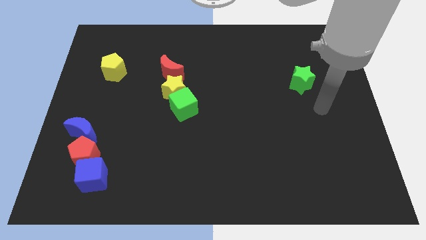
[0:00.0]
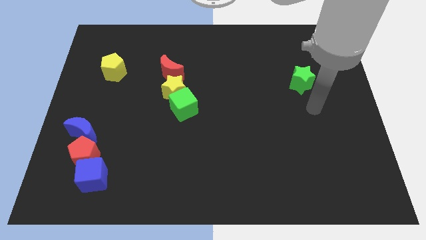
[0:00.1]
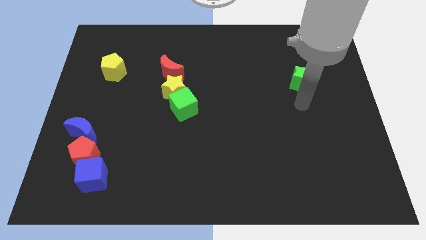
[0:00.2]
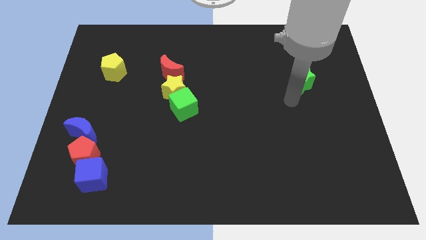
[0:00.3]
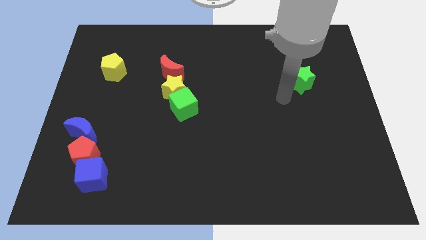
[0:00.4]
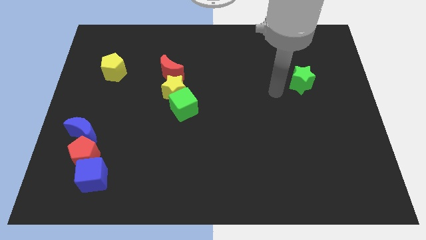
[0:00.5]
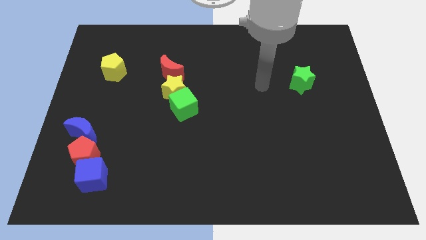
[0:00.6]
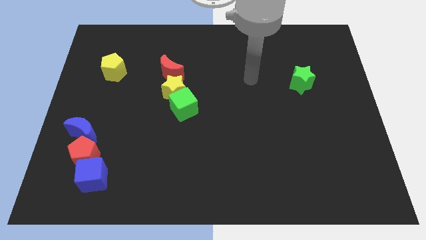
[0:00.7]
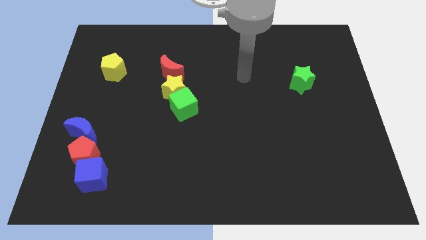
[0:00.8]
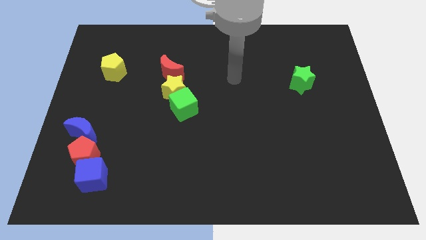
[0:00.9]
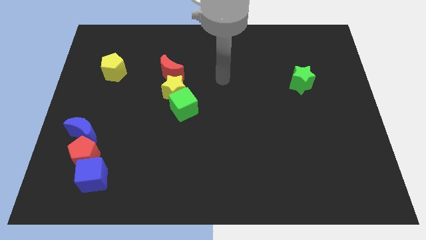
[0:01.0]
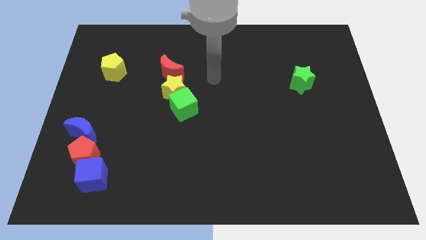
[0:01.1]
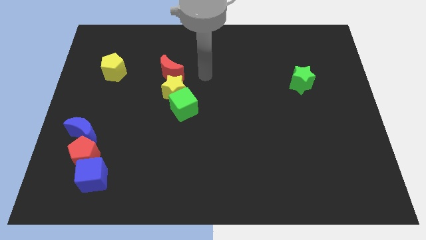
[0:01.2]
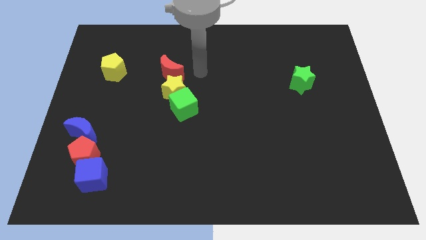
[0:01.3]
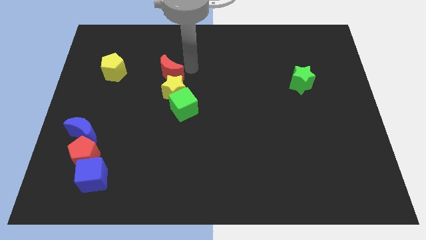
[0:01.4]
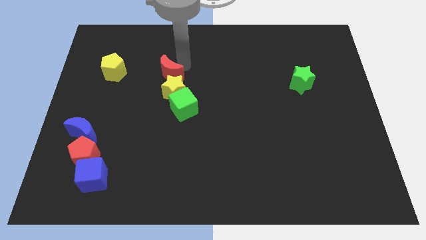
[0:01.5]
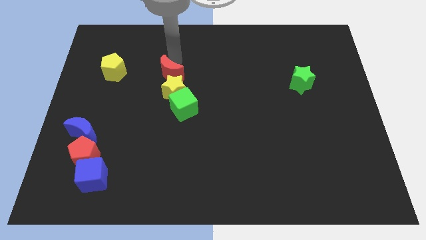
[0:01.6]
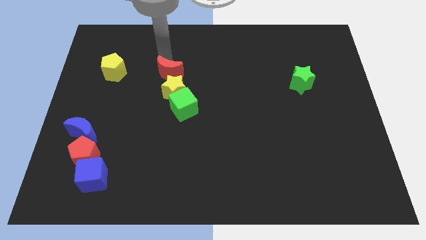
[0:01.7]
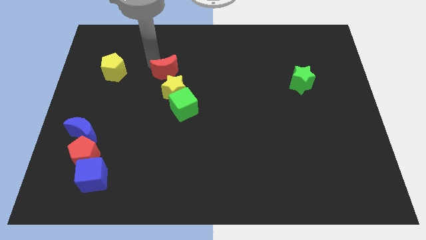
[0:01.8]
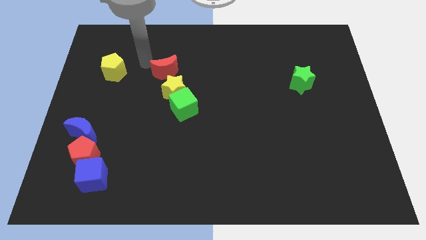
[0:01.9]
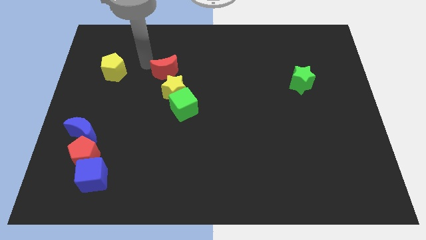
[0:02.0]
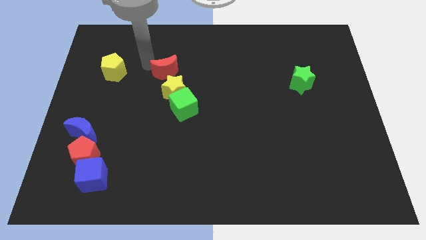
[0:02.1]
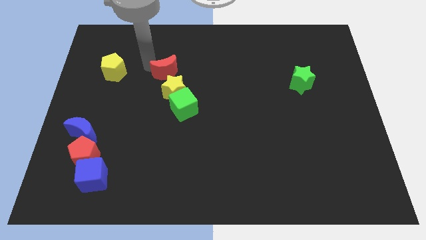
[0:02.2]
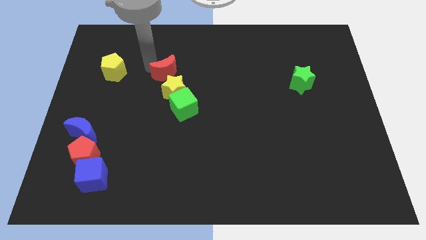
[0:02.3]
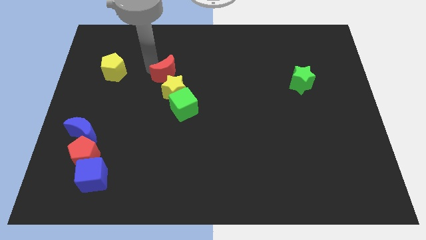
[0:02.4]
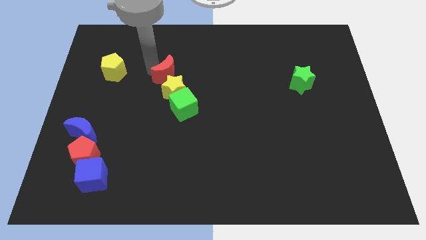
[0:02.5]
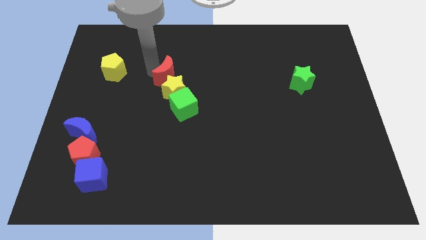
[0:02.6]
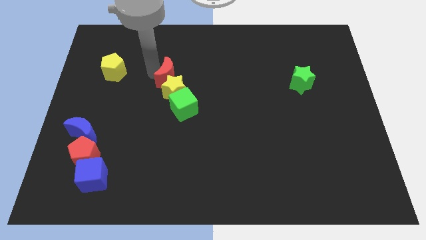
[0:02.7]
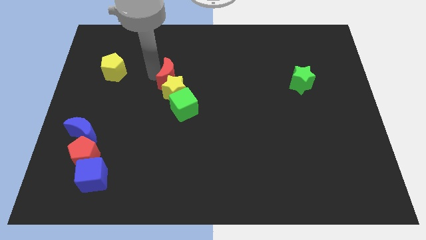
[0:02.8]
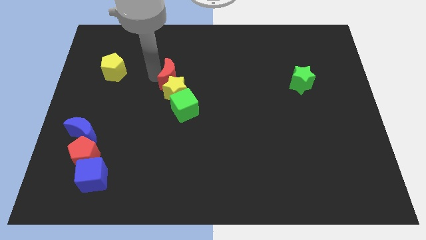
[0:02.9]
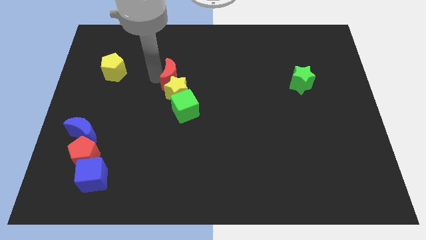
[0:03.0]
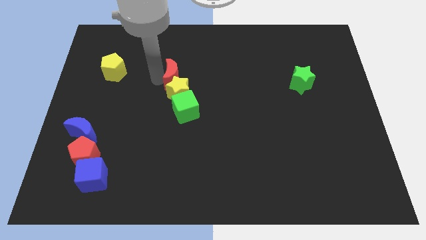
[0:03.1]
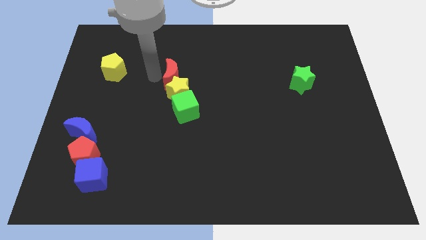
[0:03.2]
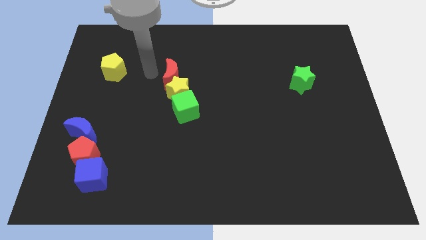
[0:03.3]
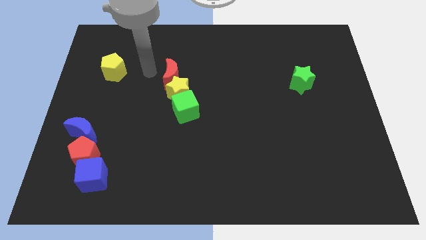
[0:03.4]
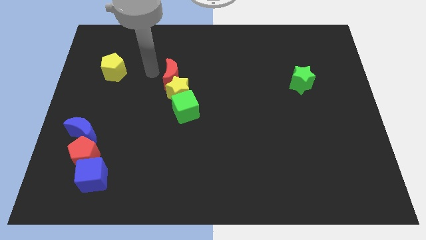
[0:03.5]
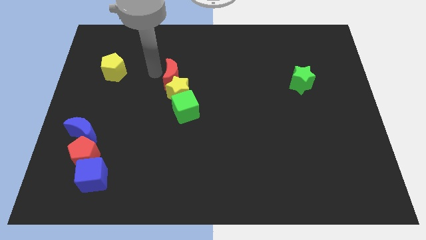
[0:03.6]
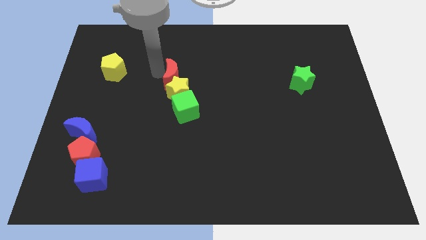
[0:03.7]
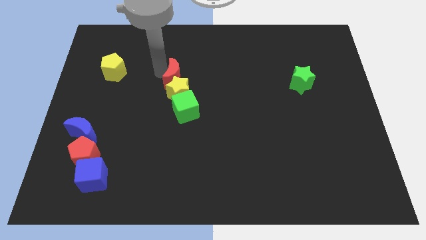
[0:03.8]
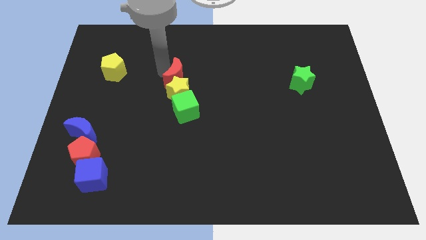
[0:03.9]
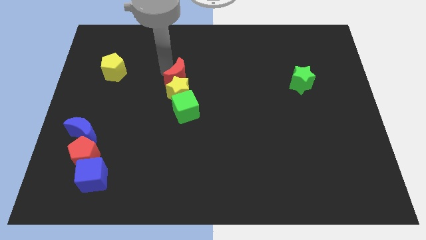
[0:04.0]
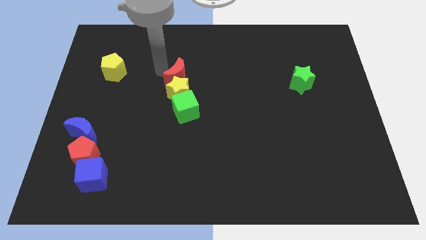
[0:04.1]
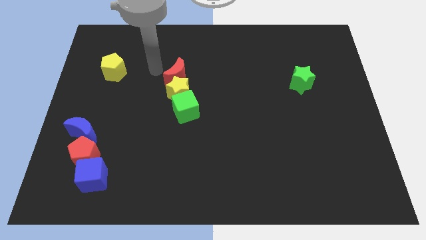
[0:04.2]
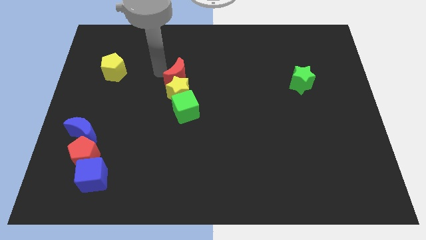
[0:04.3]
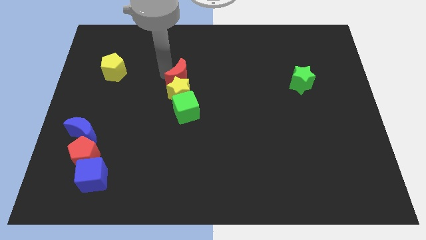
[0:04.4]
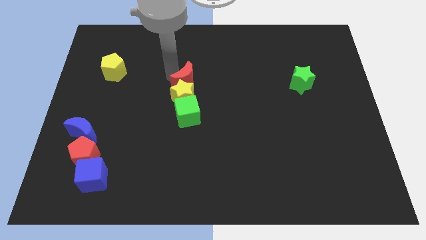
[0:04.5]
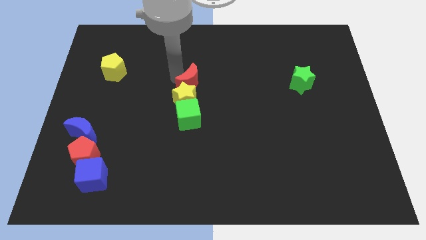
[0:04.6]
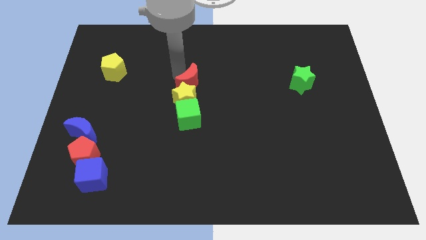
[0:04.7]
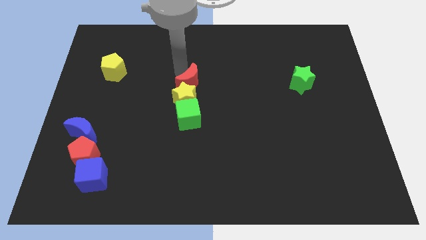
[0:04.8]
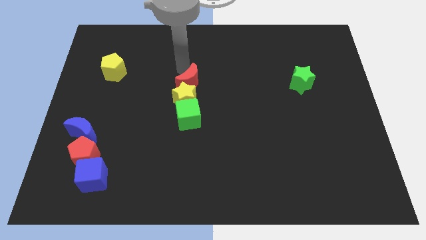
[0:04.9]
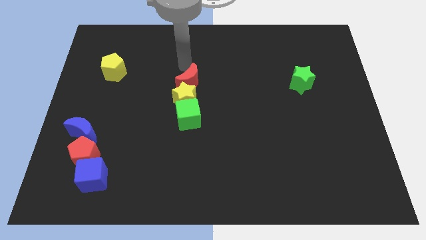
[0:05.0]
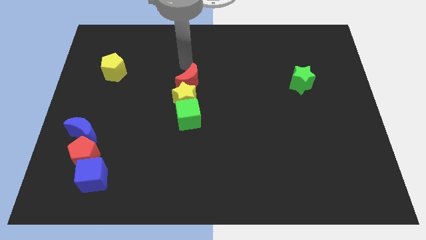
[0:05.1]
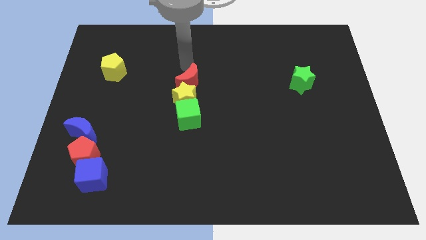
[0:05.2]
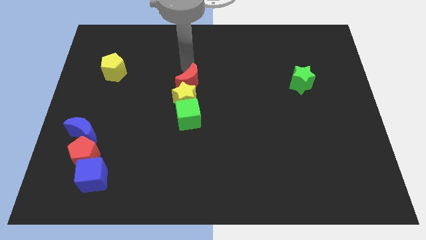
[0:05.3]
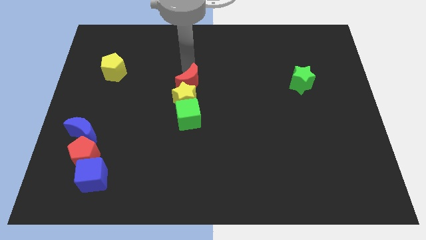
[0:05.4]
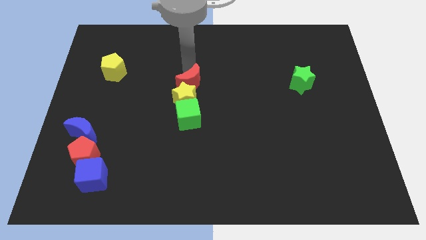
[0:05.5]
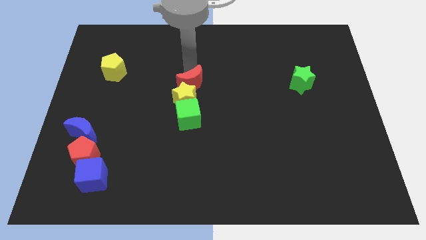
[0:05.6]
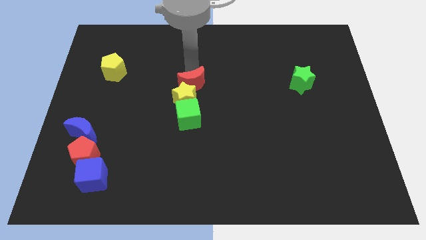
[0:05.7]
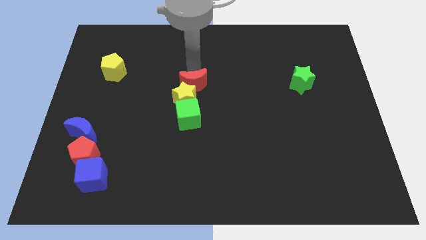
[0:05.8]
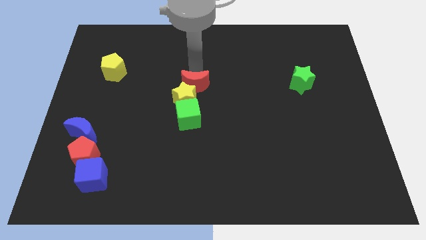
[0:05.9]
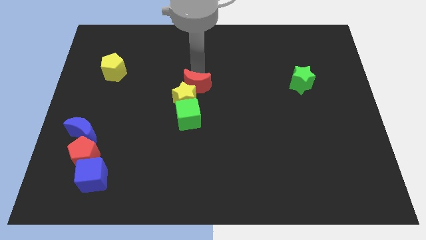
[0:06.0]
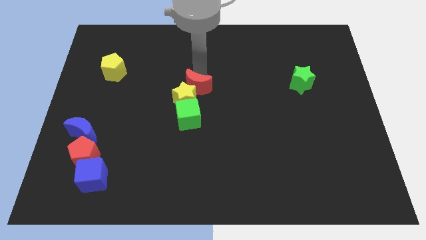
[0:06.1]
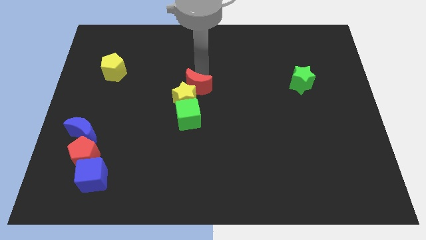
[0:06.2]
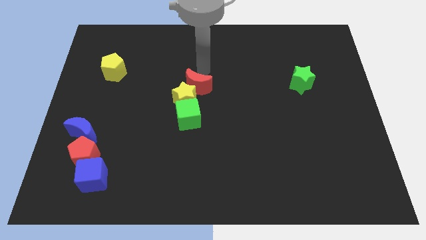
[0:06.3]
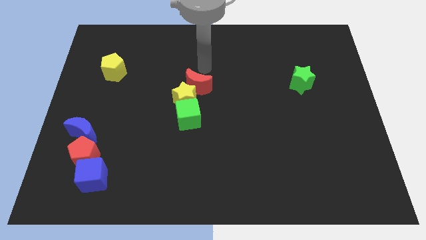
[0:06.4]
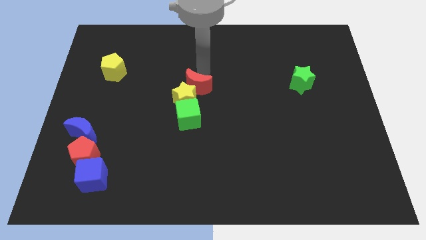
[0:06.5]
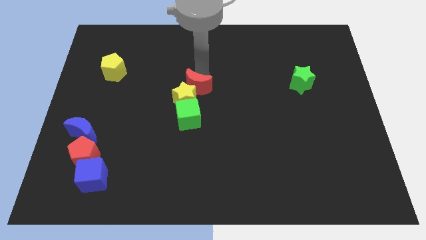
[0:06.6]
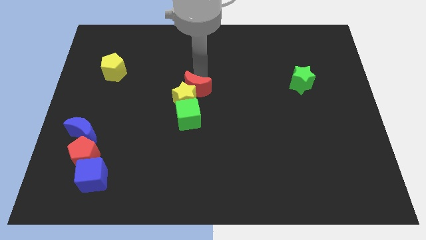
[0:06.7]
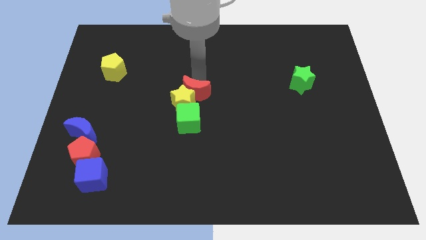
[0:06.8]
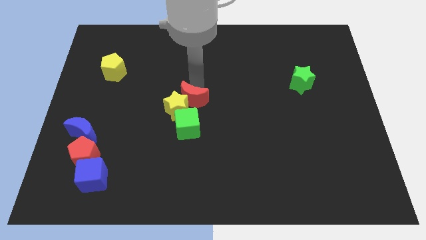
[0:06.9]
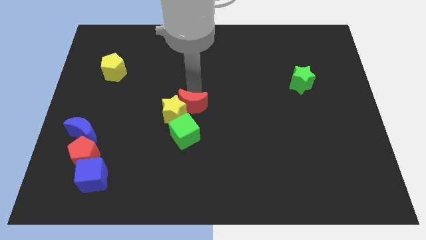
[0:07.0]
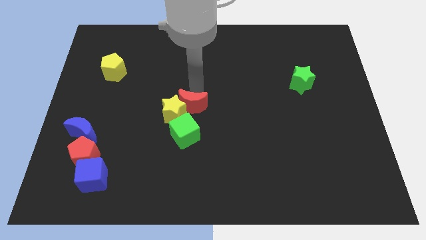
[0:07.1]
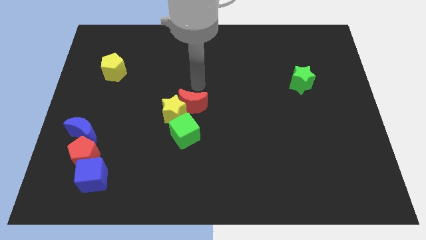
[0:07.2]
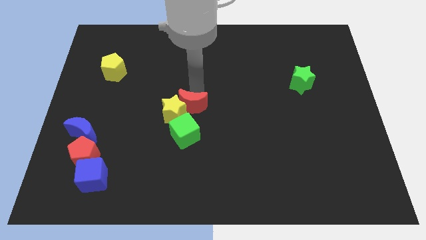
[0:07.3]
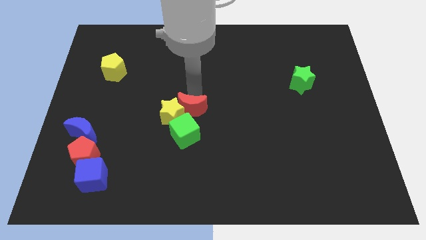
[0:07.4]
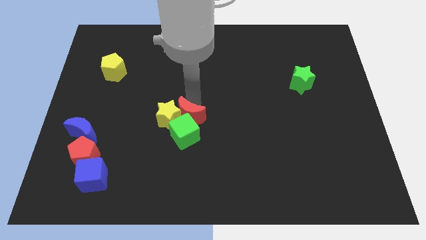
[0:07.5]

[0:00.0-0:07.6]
put the red moon next to the green cube
